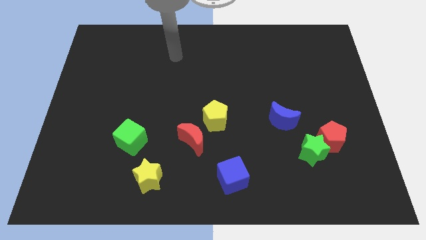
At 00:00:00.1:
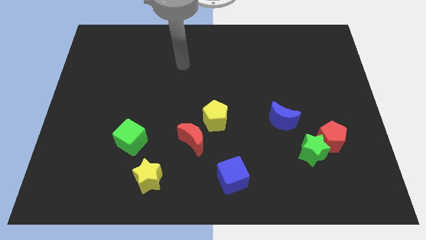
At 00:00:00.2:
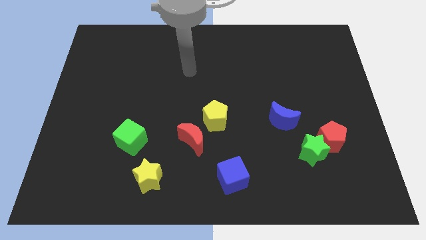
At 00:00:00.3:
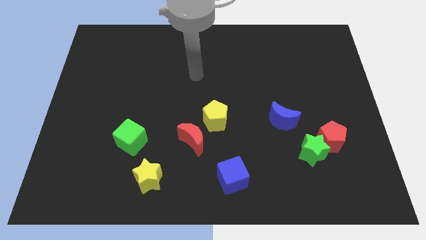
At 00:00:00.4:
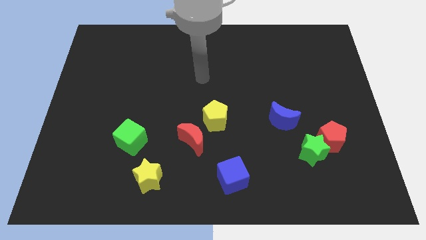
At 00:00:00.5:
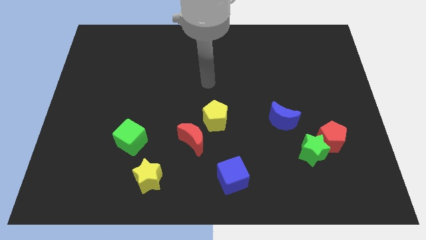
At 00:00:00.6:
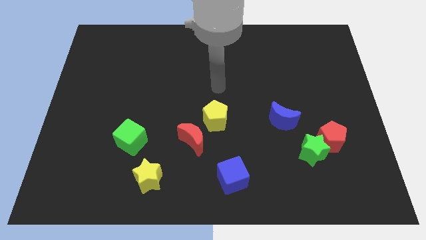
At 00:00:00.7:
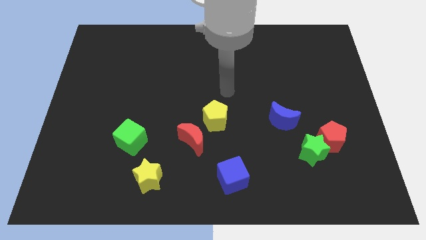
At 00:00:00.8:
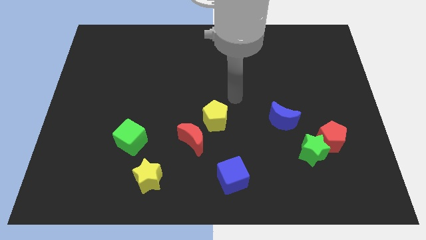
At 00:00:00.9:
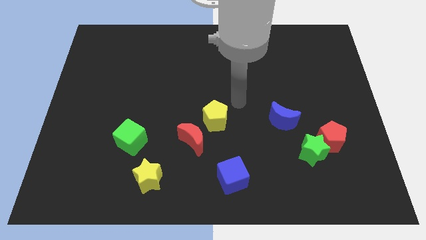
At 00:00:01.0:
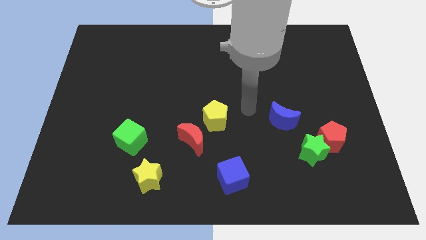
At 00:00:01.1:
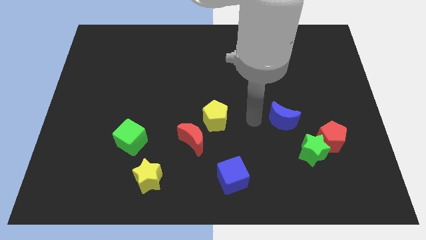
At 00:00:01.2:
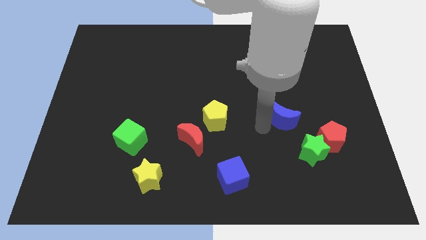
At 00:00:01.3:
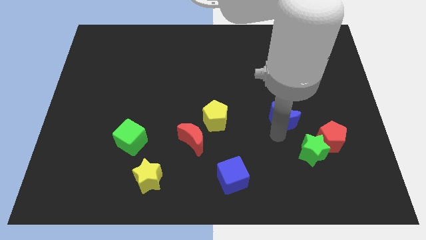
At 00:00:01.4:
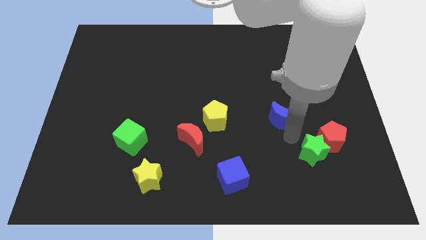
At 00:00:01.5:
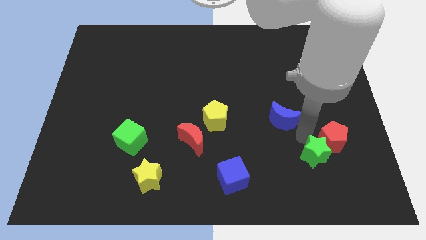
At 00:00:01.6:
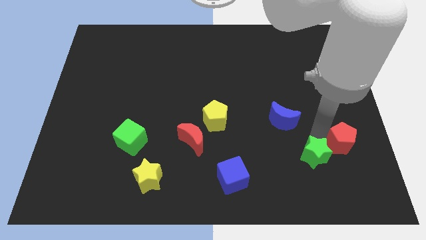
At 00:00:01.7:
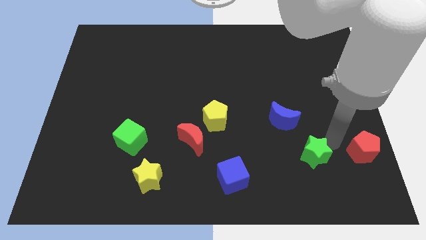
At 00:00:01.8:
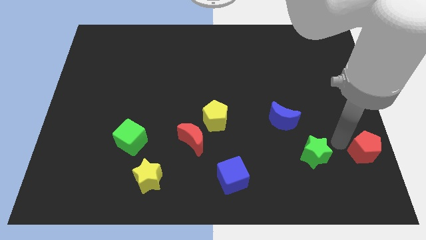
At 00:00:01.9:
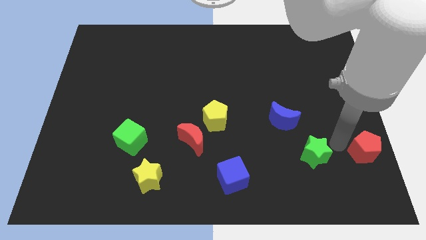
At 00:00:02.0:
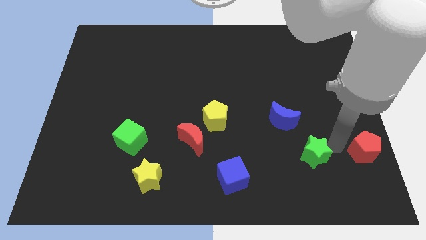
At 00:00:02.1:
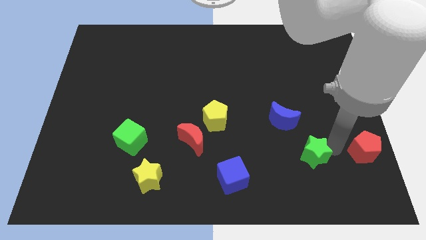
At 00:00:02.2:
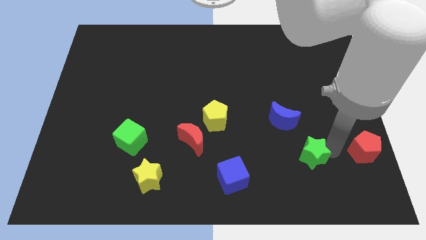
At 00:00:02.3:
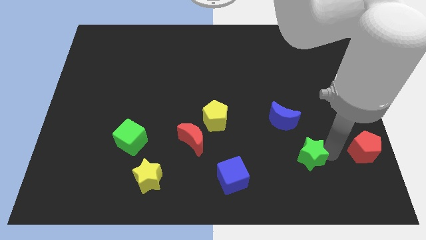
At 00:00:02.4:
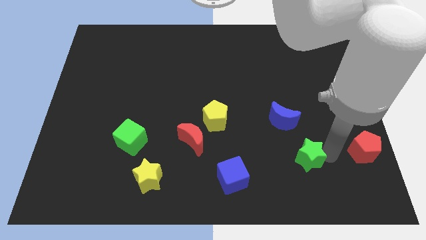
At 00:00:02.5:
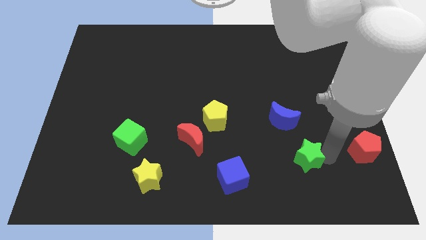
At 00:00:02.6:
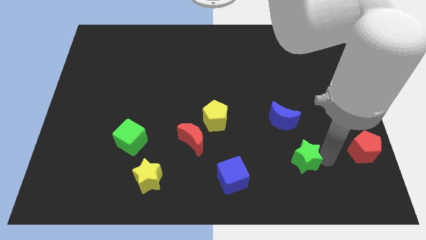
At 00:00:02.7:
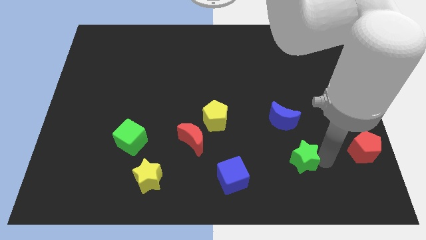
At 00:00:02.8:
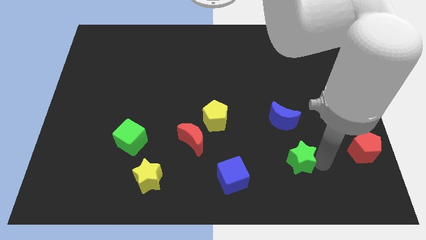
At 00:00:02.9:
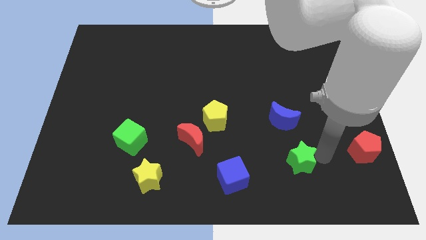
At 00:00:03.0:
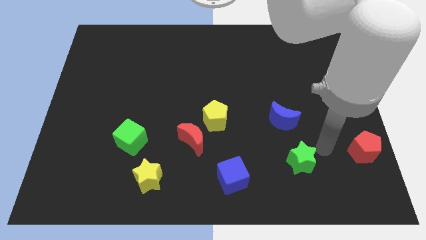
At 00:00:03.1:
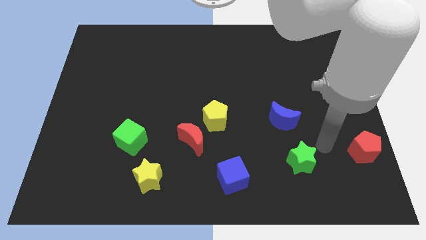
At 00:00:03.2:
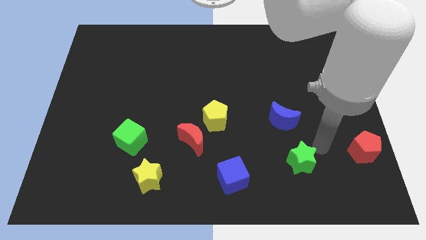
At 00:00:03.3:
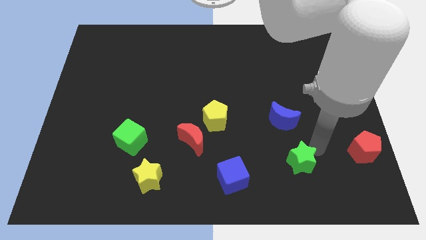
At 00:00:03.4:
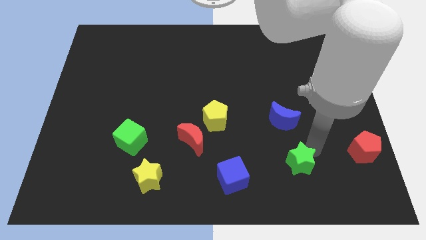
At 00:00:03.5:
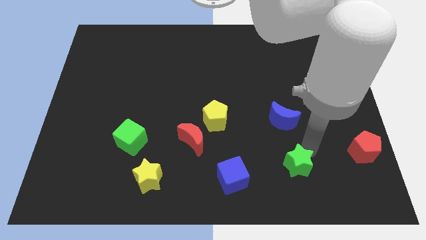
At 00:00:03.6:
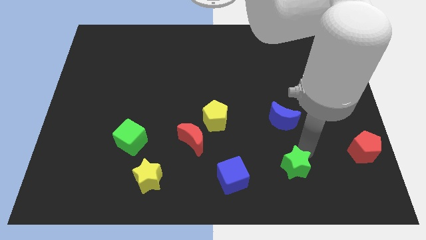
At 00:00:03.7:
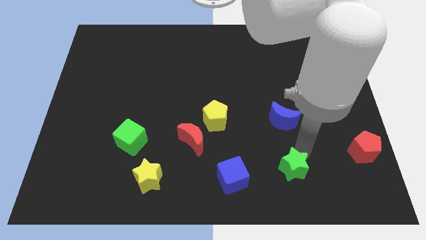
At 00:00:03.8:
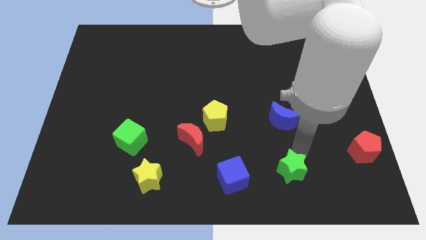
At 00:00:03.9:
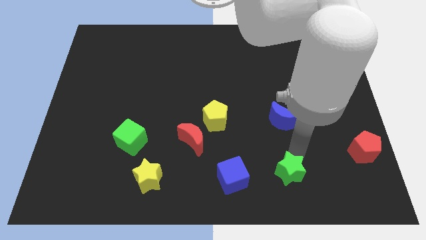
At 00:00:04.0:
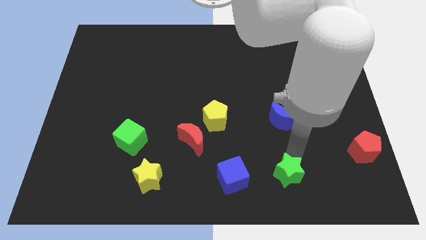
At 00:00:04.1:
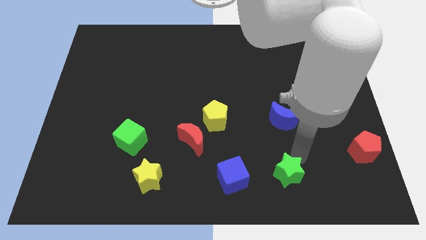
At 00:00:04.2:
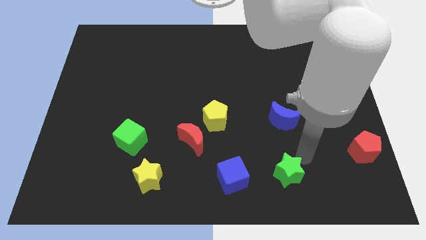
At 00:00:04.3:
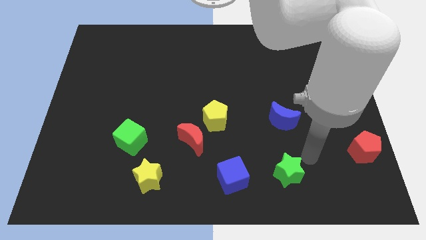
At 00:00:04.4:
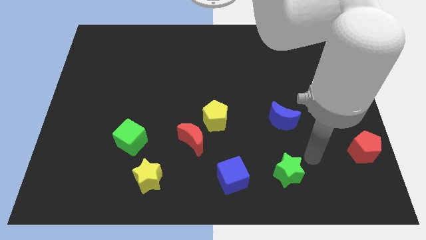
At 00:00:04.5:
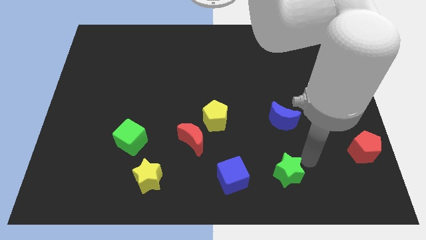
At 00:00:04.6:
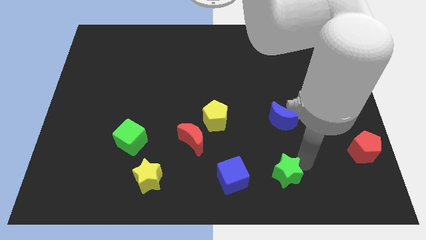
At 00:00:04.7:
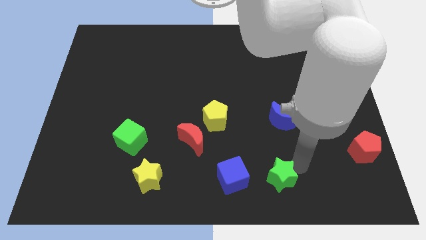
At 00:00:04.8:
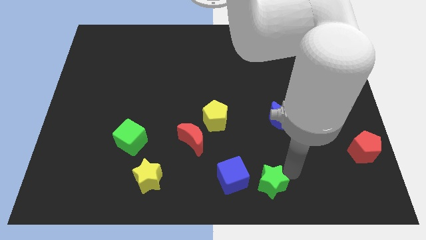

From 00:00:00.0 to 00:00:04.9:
put the green star to the bottom

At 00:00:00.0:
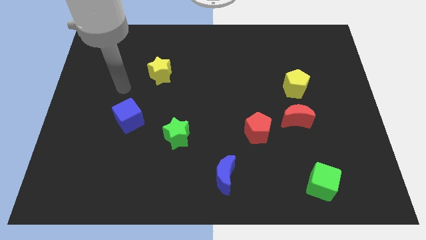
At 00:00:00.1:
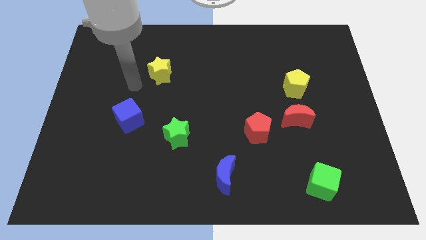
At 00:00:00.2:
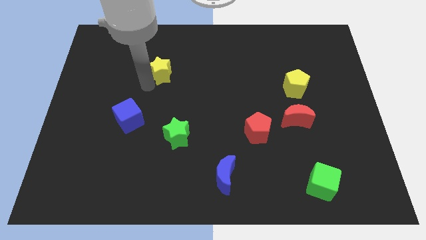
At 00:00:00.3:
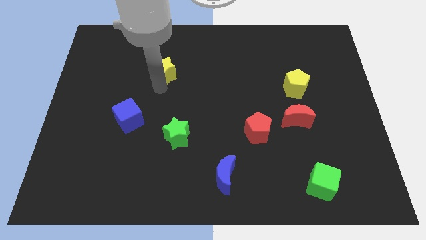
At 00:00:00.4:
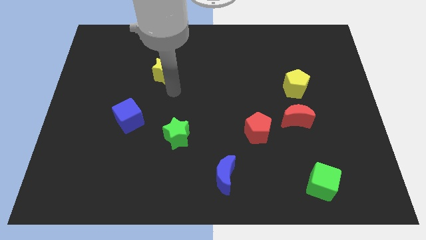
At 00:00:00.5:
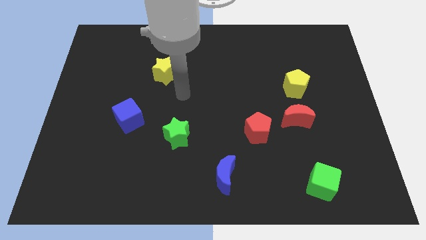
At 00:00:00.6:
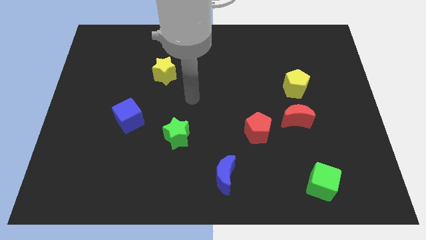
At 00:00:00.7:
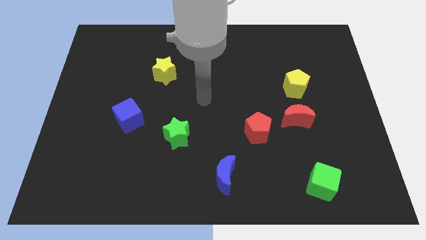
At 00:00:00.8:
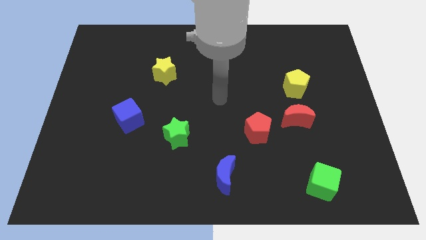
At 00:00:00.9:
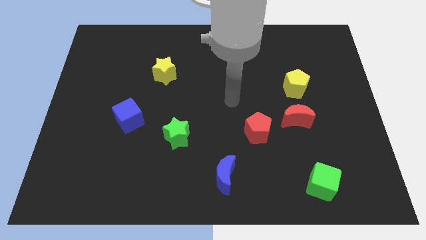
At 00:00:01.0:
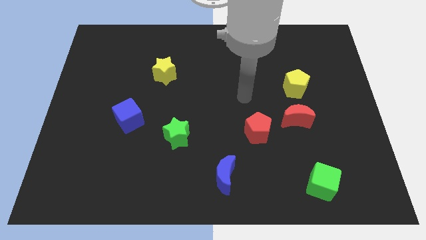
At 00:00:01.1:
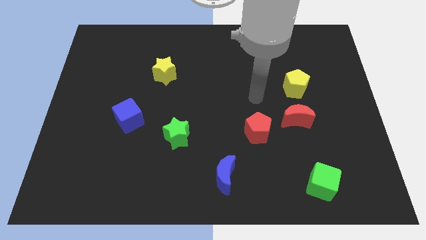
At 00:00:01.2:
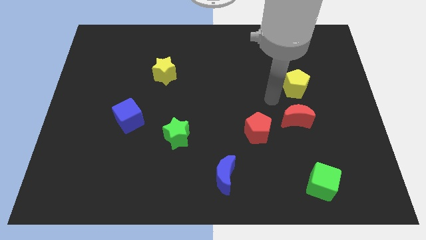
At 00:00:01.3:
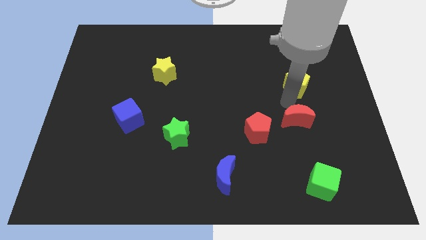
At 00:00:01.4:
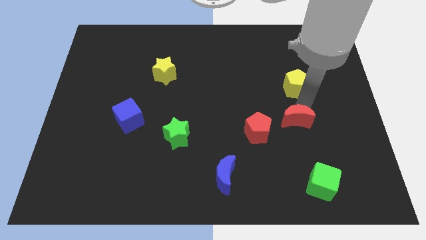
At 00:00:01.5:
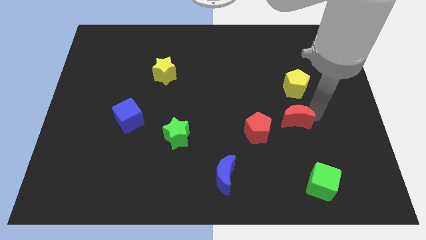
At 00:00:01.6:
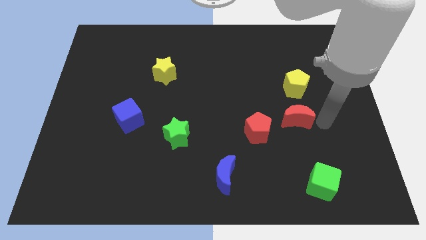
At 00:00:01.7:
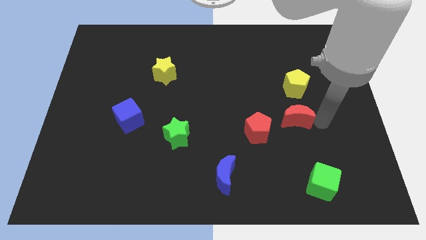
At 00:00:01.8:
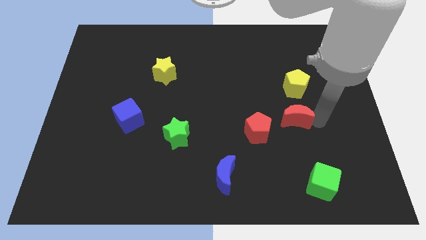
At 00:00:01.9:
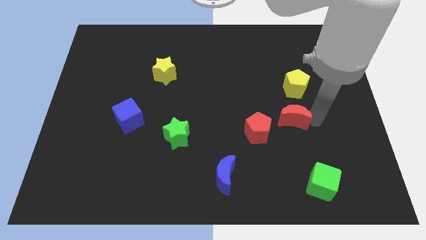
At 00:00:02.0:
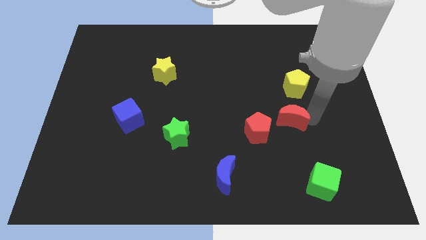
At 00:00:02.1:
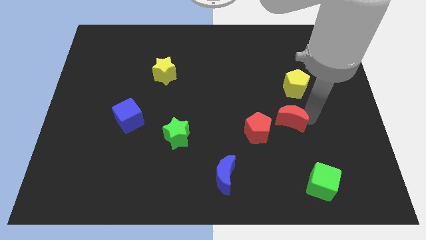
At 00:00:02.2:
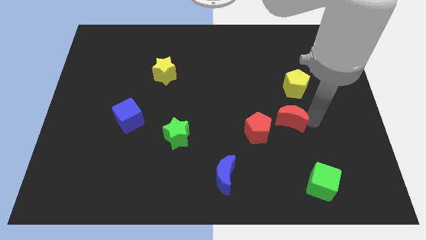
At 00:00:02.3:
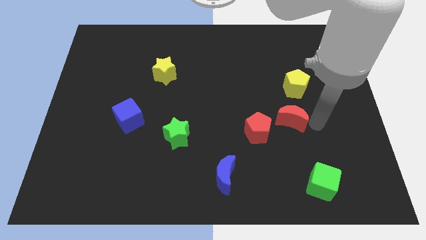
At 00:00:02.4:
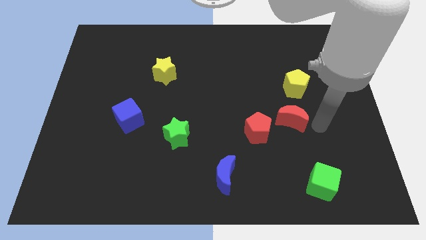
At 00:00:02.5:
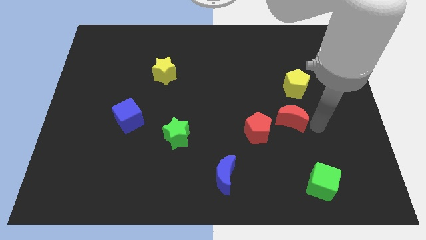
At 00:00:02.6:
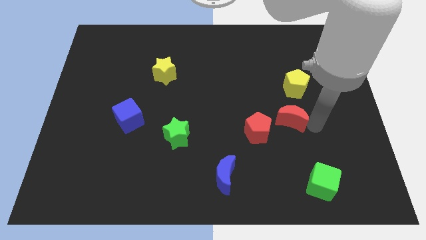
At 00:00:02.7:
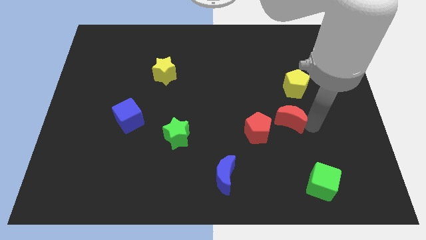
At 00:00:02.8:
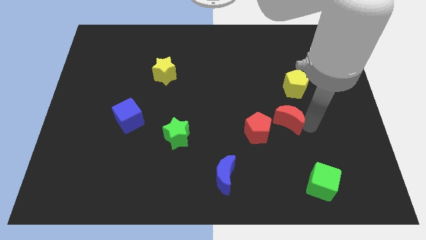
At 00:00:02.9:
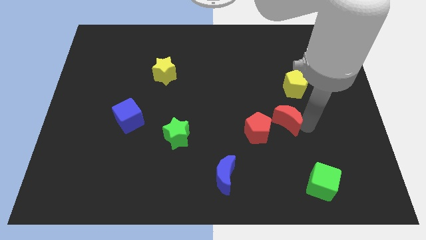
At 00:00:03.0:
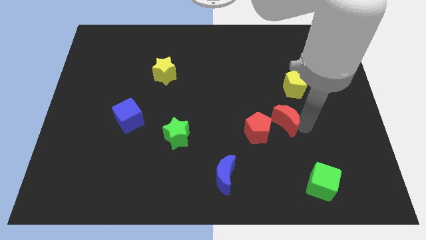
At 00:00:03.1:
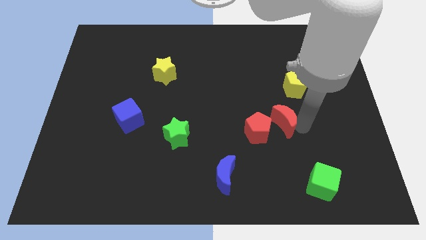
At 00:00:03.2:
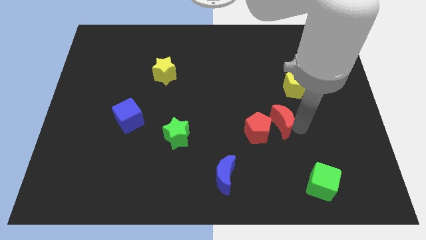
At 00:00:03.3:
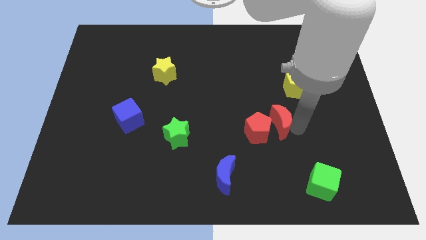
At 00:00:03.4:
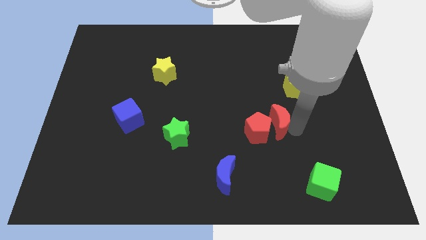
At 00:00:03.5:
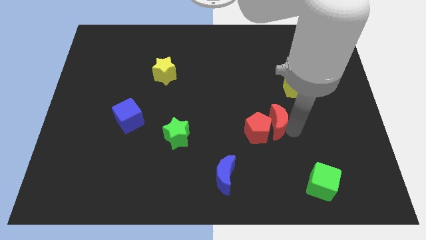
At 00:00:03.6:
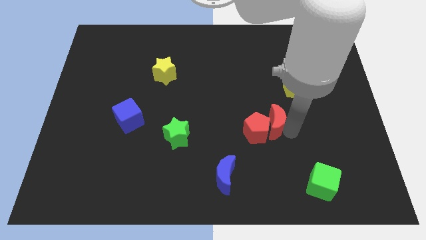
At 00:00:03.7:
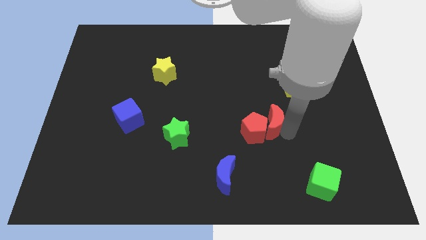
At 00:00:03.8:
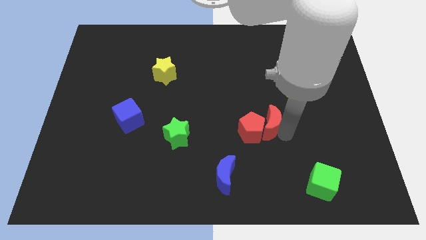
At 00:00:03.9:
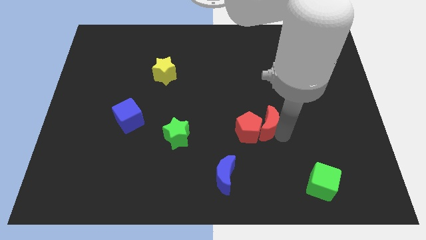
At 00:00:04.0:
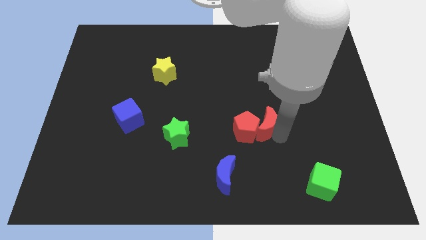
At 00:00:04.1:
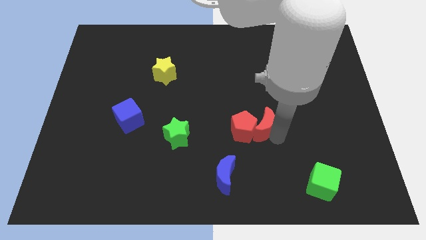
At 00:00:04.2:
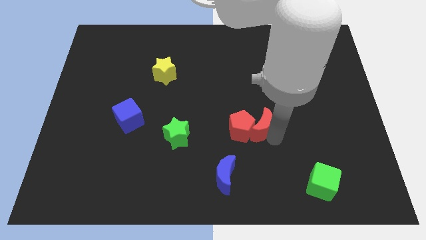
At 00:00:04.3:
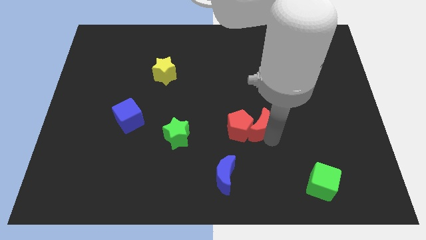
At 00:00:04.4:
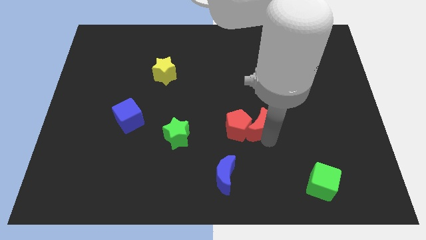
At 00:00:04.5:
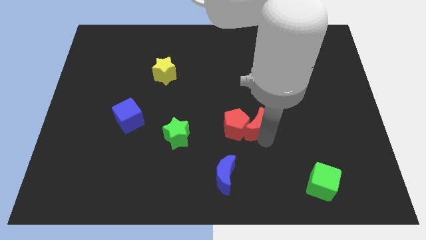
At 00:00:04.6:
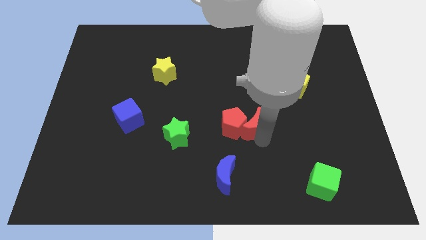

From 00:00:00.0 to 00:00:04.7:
move the red moon to the center of the board
